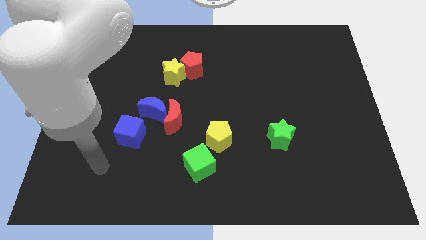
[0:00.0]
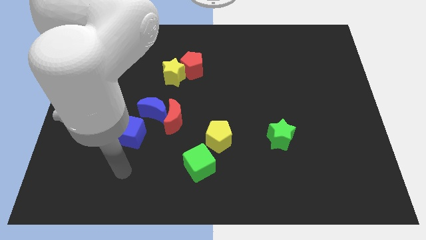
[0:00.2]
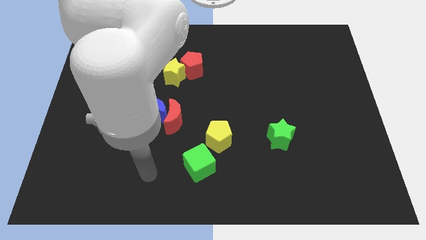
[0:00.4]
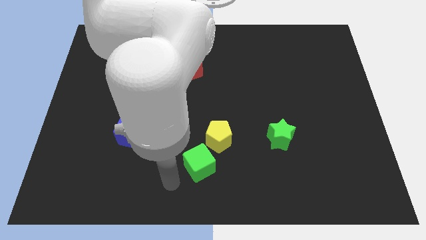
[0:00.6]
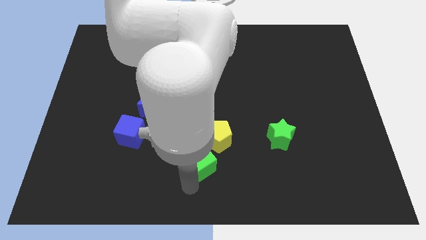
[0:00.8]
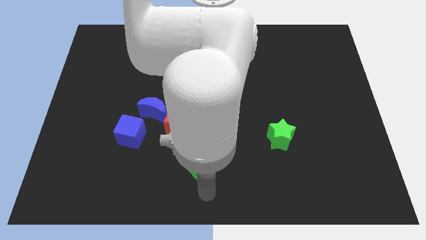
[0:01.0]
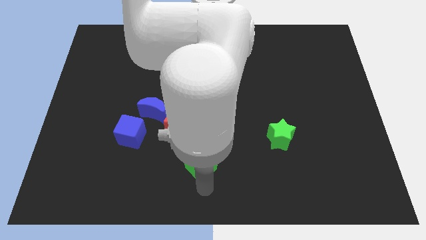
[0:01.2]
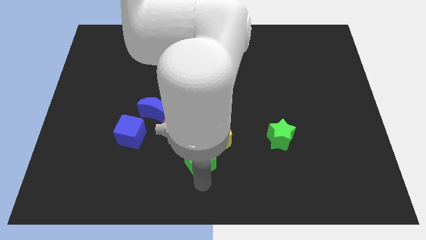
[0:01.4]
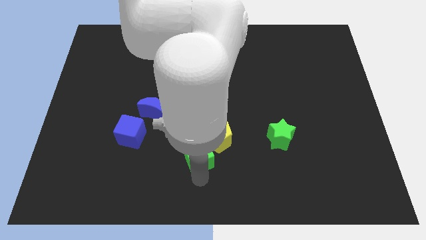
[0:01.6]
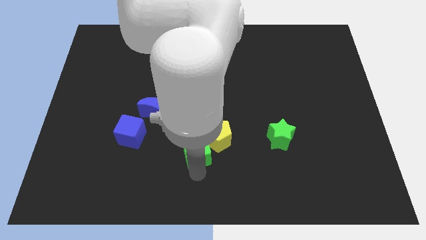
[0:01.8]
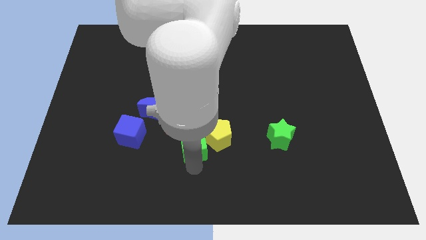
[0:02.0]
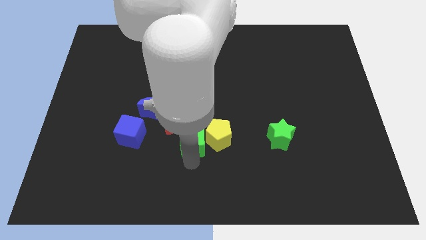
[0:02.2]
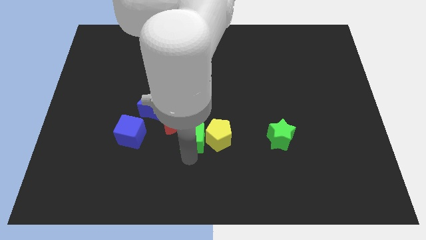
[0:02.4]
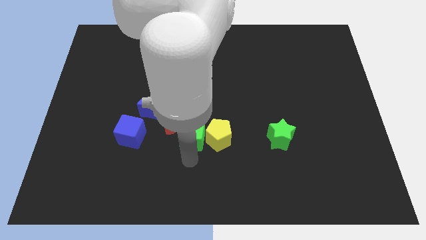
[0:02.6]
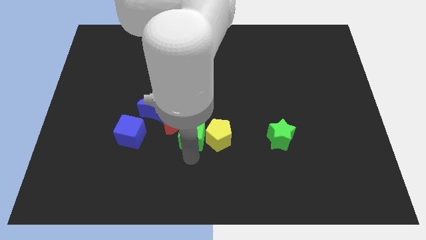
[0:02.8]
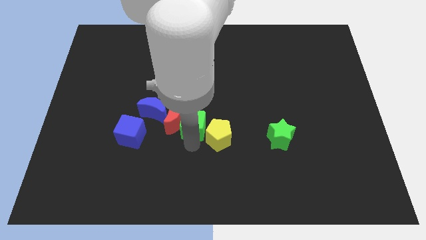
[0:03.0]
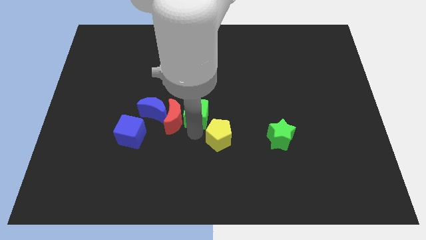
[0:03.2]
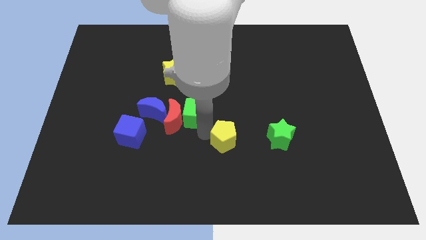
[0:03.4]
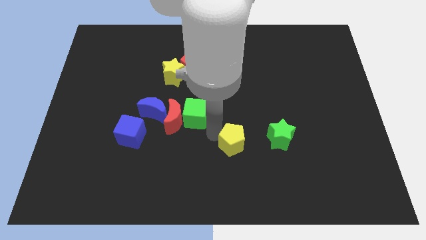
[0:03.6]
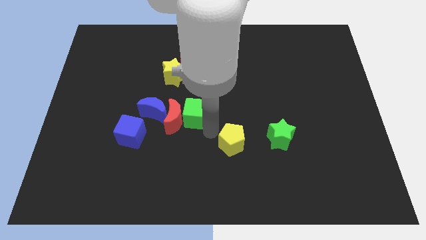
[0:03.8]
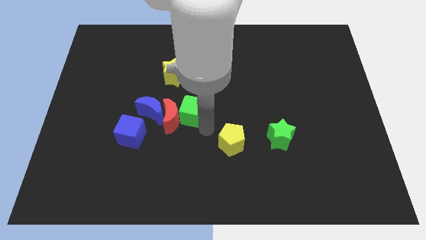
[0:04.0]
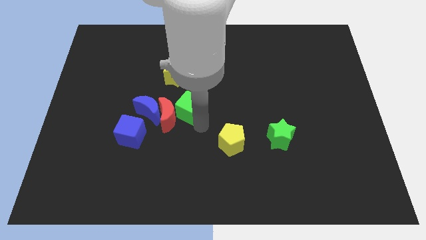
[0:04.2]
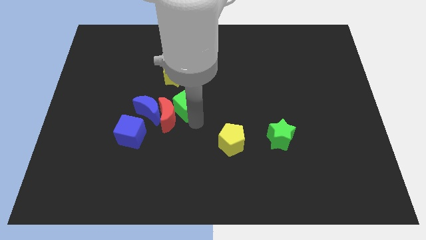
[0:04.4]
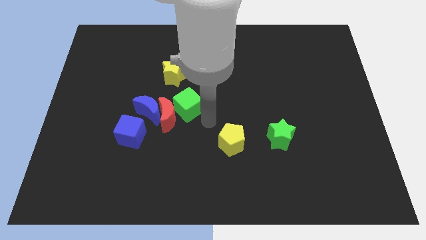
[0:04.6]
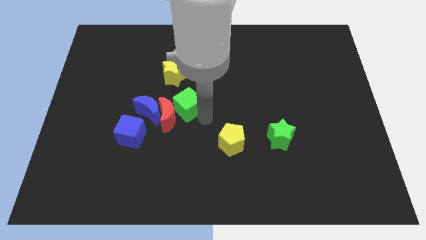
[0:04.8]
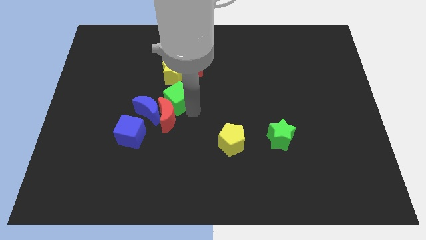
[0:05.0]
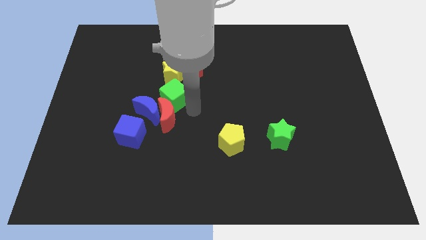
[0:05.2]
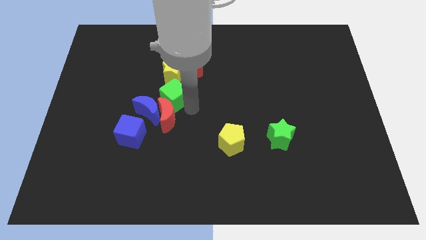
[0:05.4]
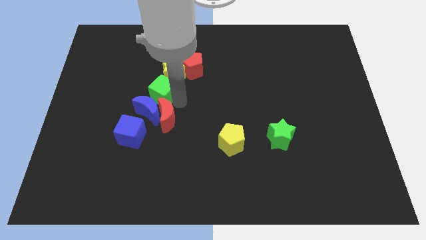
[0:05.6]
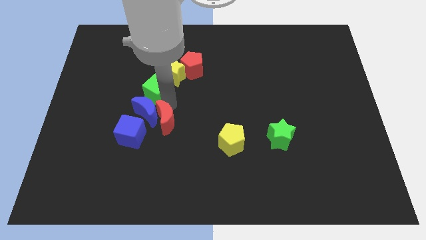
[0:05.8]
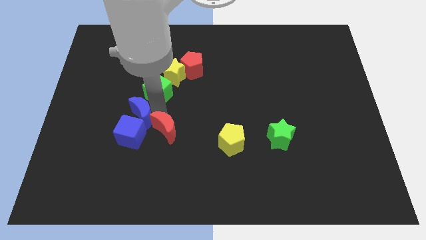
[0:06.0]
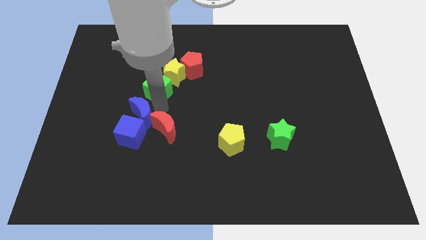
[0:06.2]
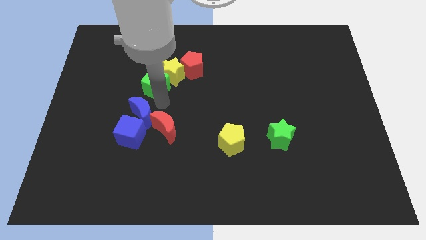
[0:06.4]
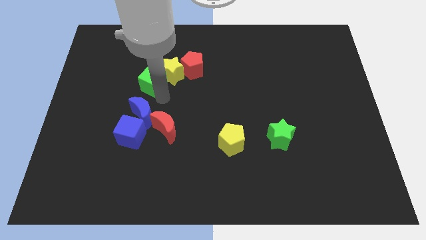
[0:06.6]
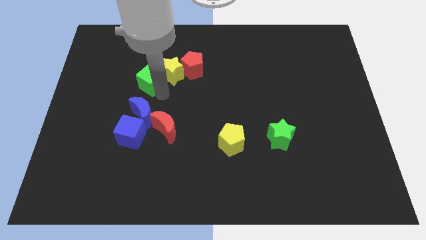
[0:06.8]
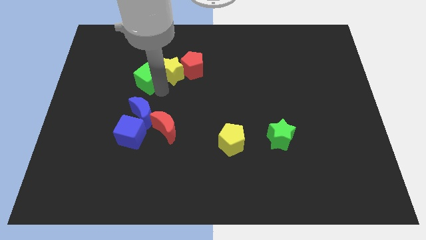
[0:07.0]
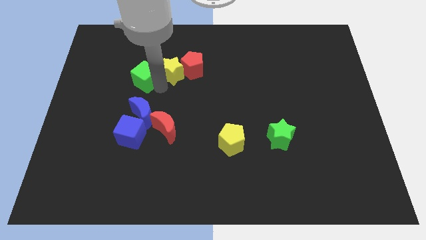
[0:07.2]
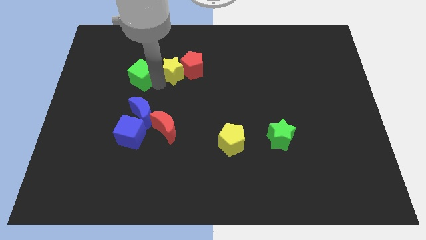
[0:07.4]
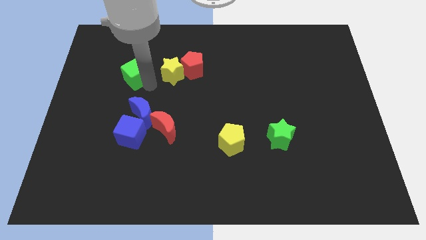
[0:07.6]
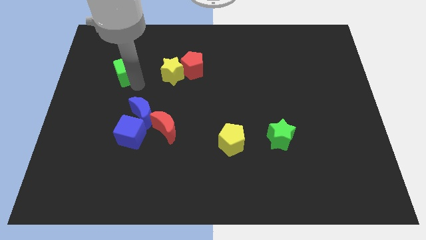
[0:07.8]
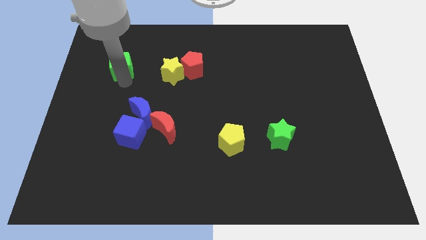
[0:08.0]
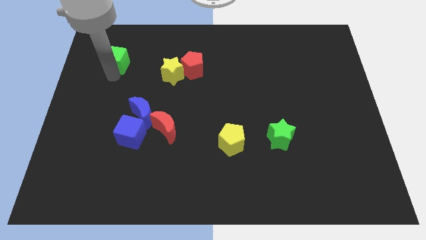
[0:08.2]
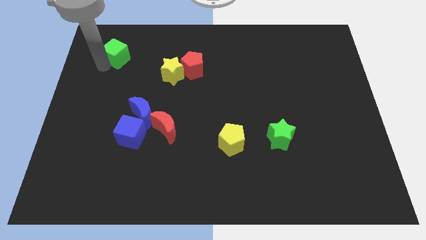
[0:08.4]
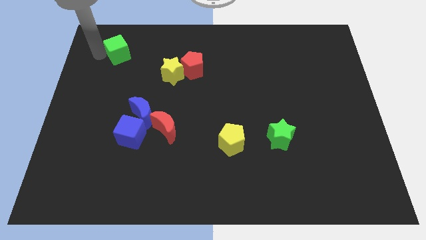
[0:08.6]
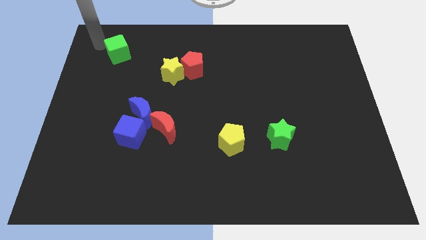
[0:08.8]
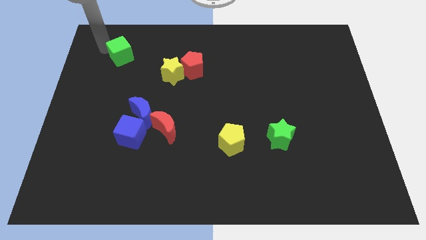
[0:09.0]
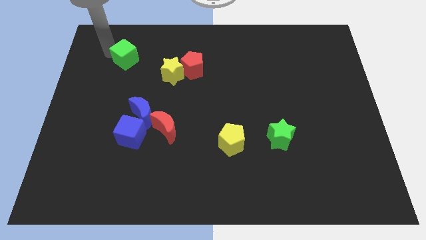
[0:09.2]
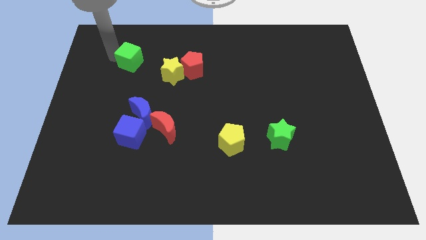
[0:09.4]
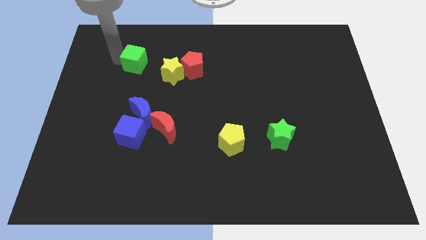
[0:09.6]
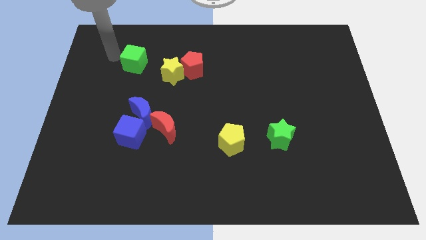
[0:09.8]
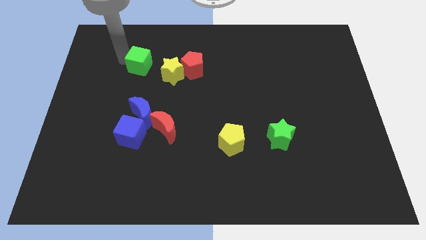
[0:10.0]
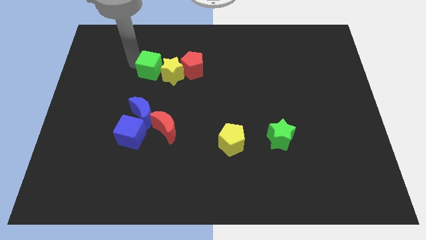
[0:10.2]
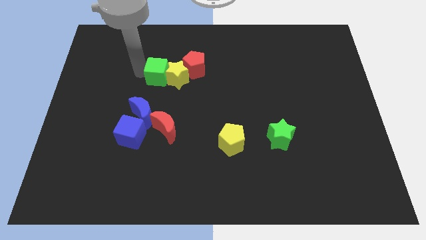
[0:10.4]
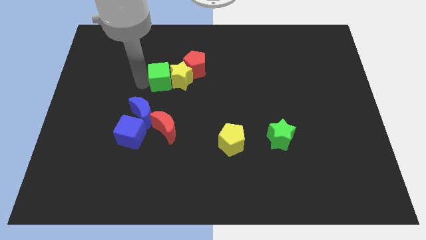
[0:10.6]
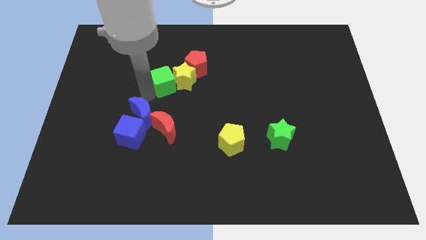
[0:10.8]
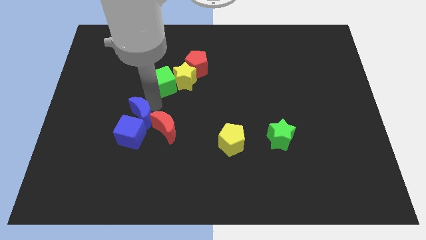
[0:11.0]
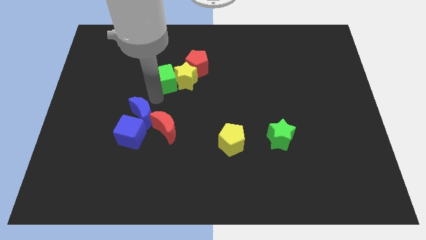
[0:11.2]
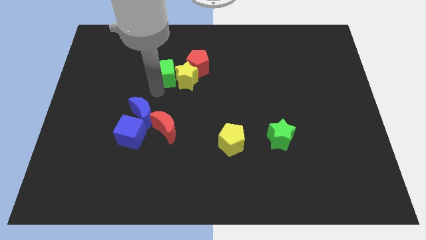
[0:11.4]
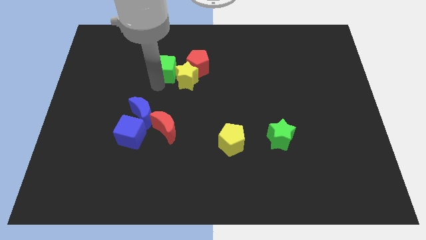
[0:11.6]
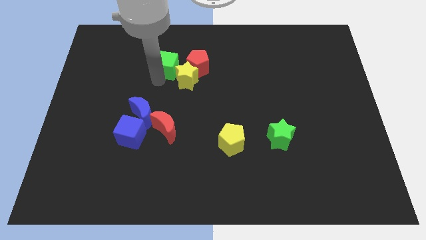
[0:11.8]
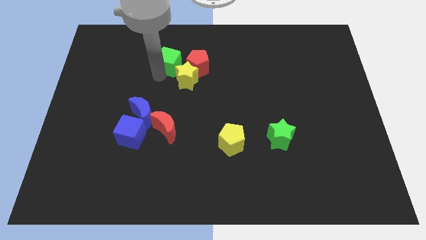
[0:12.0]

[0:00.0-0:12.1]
slide the green cube diagonally up and to the left of the red pentagon

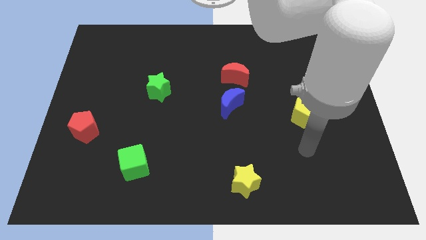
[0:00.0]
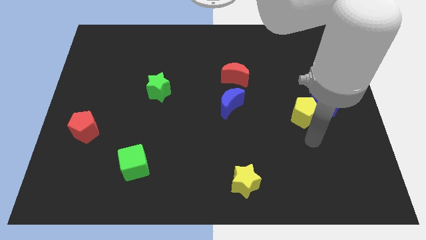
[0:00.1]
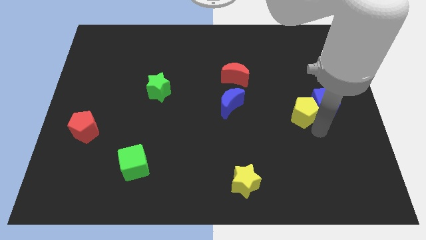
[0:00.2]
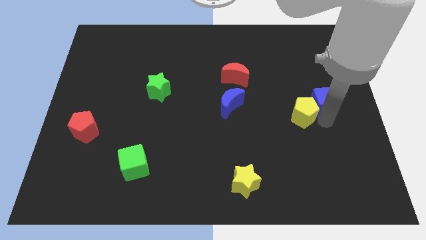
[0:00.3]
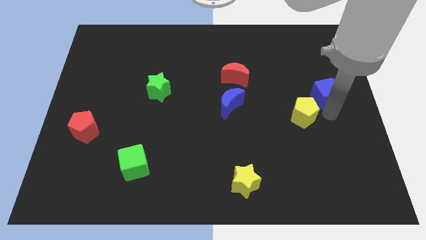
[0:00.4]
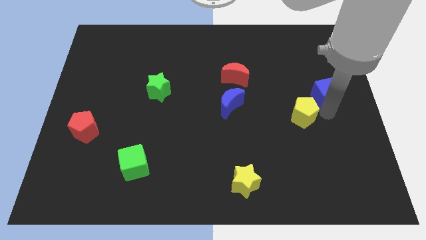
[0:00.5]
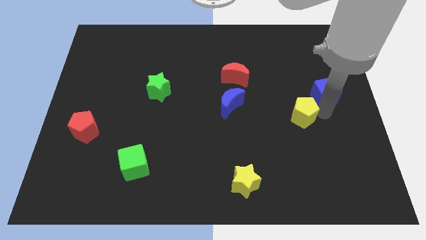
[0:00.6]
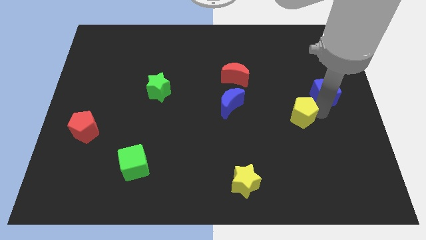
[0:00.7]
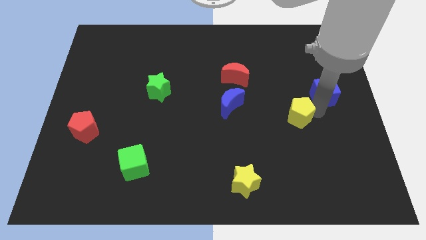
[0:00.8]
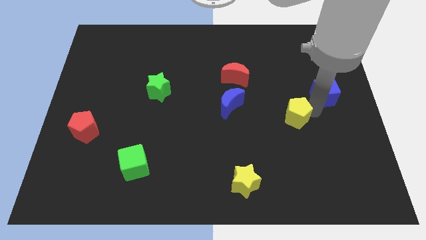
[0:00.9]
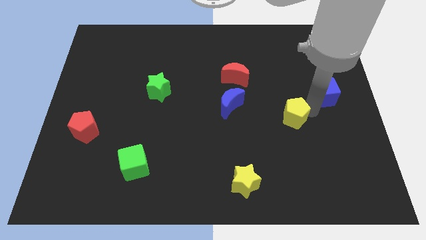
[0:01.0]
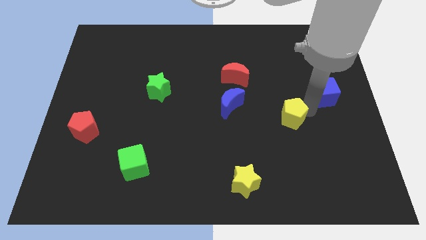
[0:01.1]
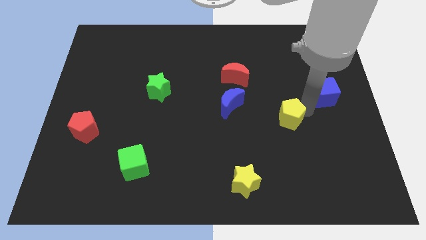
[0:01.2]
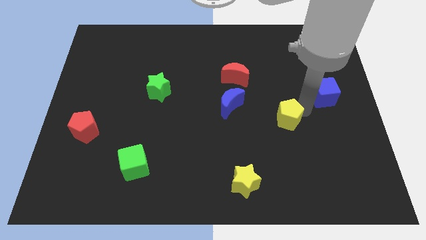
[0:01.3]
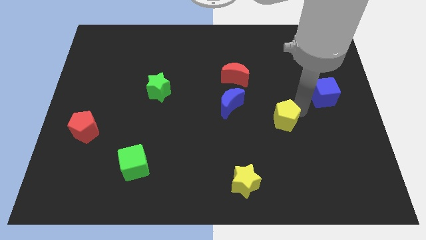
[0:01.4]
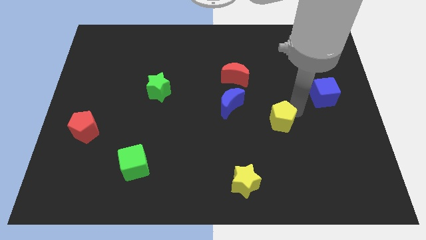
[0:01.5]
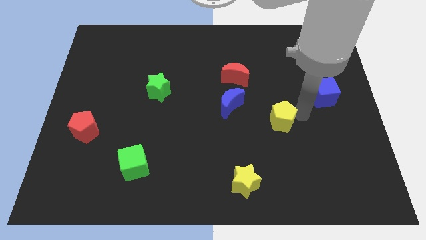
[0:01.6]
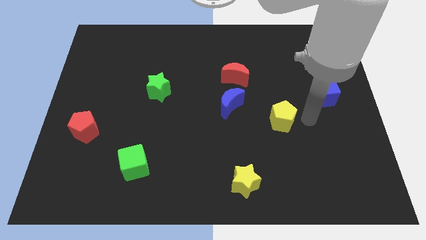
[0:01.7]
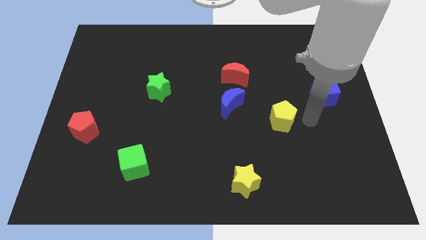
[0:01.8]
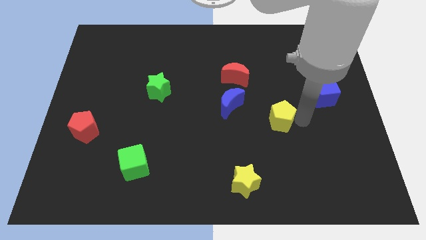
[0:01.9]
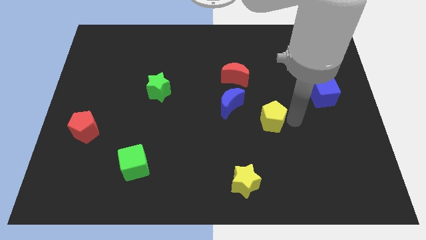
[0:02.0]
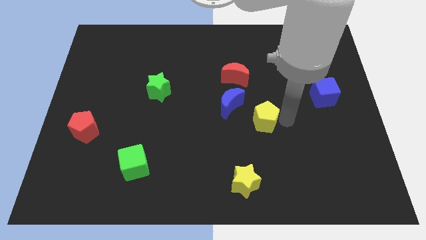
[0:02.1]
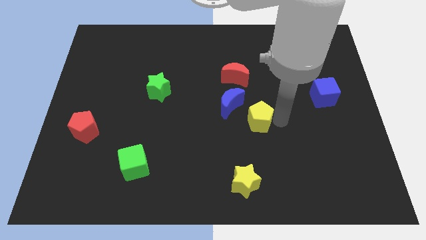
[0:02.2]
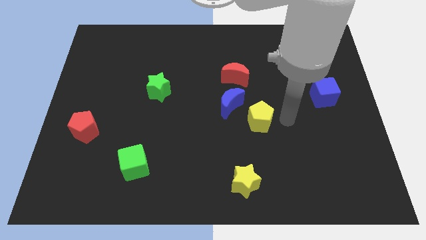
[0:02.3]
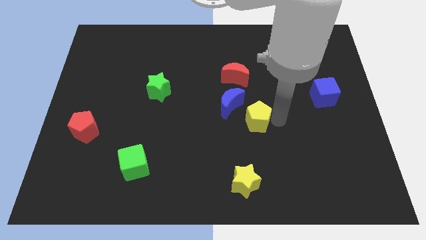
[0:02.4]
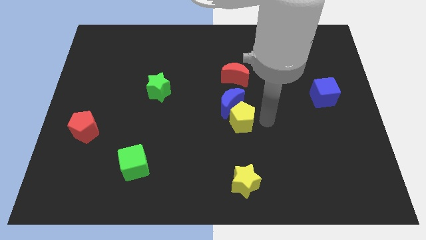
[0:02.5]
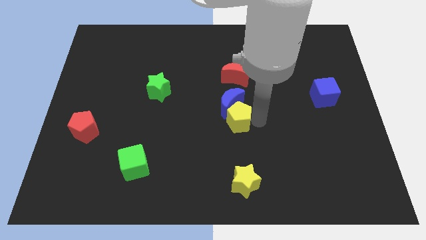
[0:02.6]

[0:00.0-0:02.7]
put the yellow pentagon to the bottom left of the blue moon
